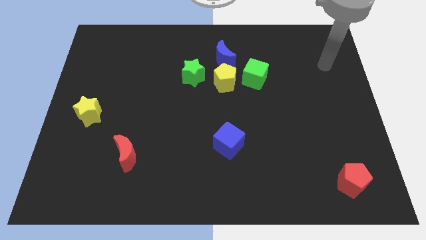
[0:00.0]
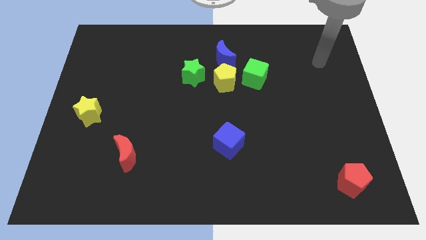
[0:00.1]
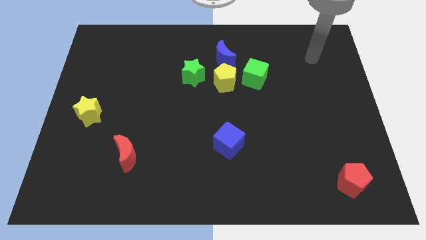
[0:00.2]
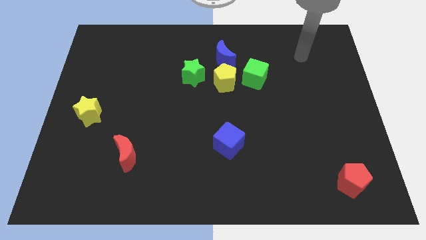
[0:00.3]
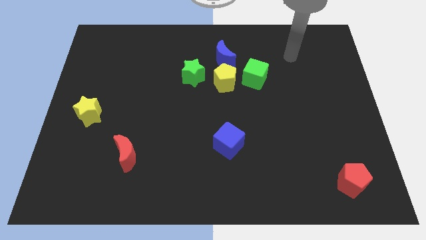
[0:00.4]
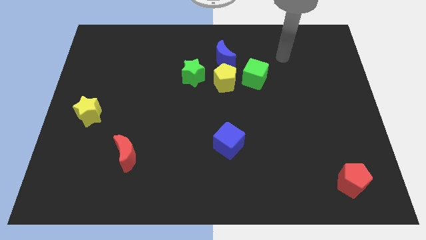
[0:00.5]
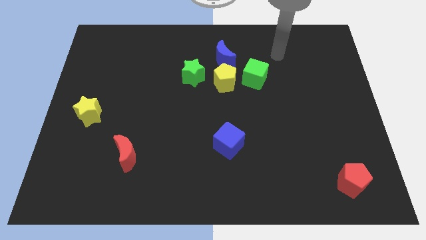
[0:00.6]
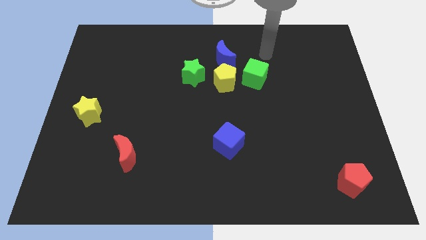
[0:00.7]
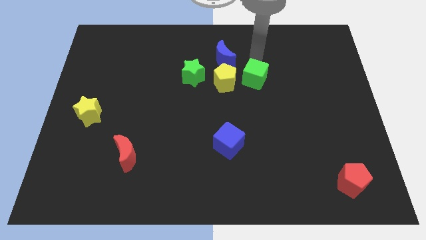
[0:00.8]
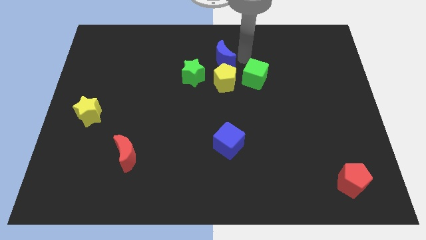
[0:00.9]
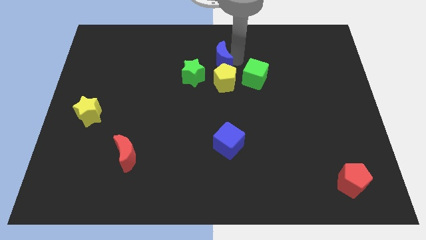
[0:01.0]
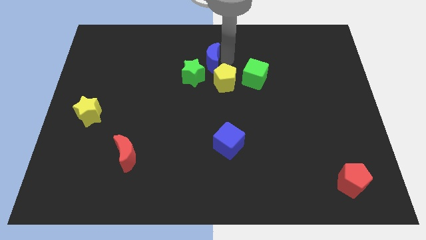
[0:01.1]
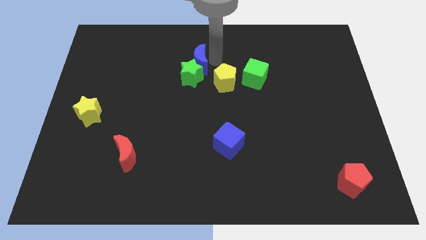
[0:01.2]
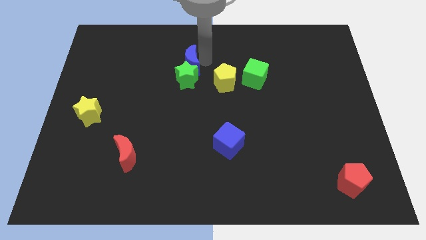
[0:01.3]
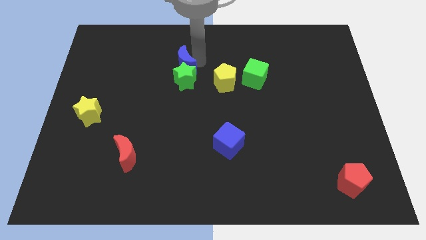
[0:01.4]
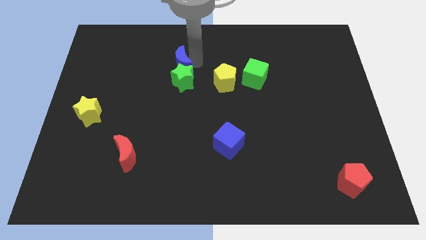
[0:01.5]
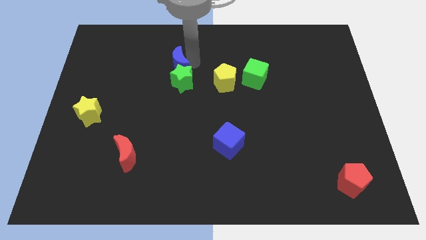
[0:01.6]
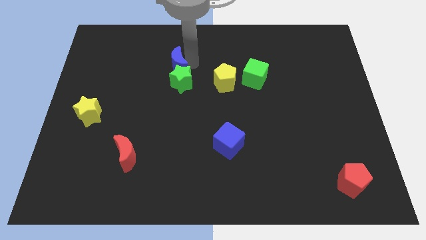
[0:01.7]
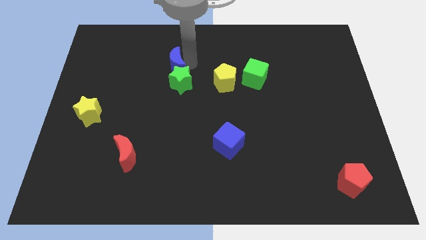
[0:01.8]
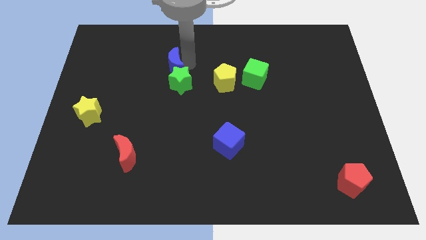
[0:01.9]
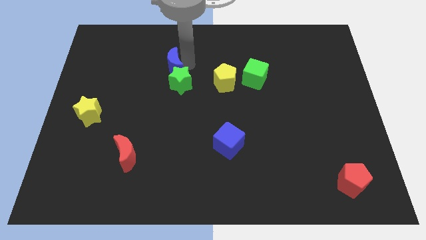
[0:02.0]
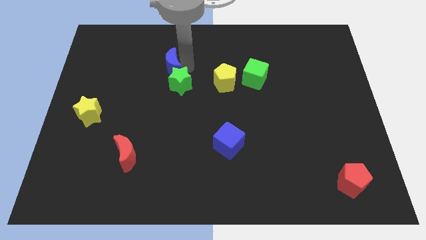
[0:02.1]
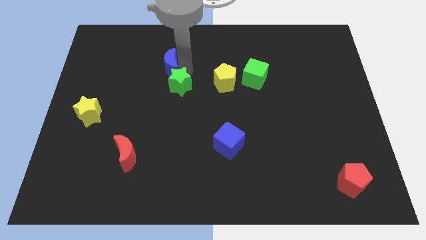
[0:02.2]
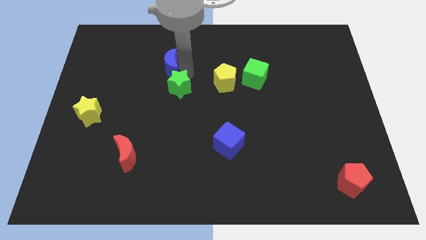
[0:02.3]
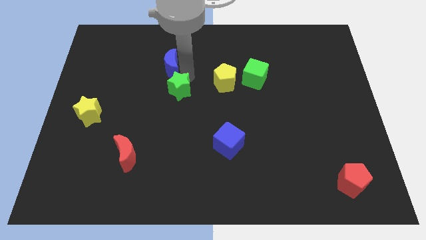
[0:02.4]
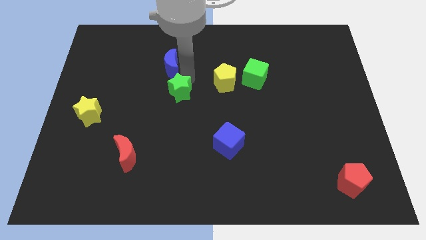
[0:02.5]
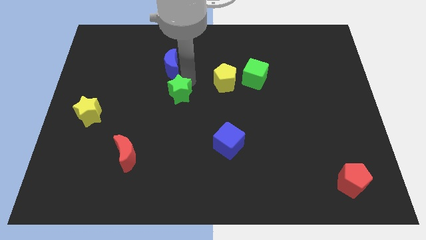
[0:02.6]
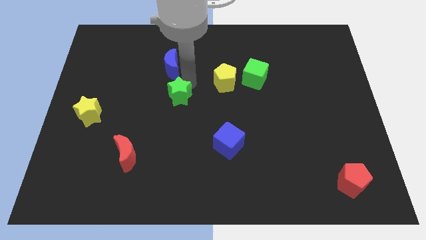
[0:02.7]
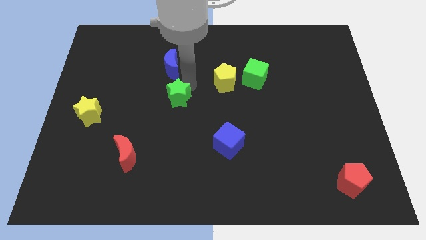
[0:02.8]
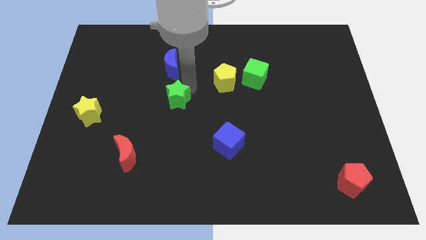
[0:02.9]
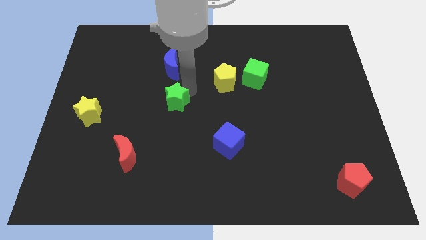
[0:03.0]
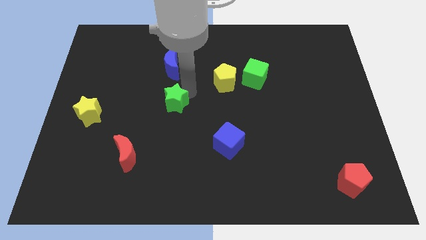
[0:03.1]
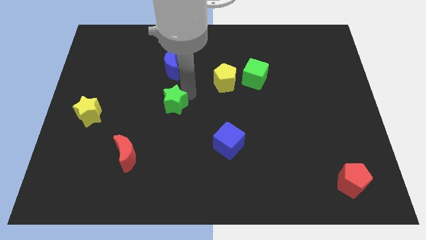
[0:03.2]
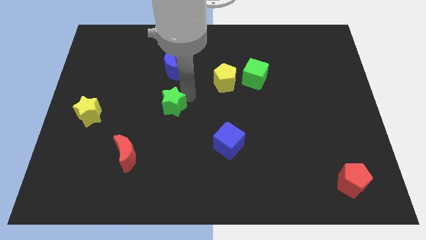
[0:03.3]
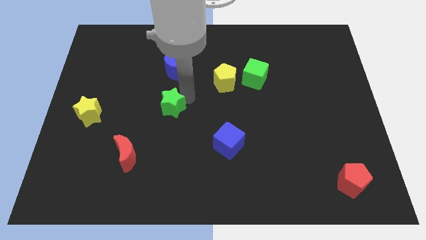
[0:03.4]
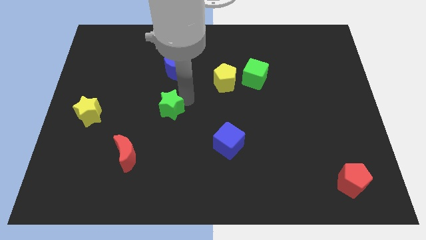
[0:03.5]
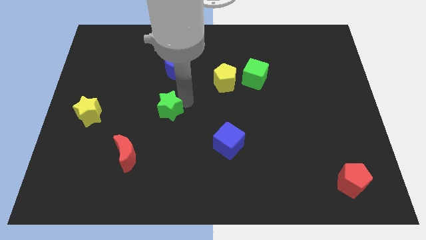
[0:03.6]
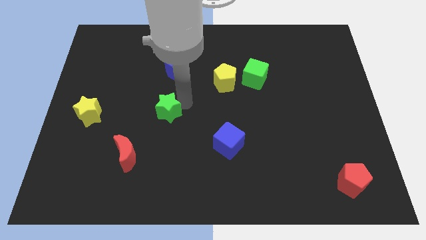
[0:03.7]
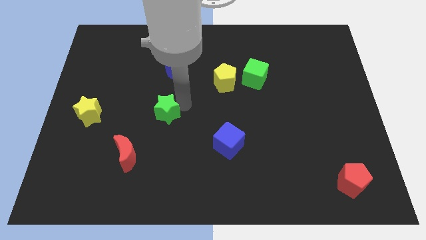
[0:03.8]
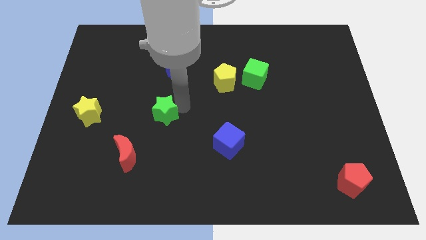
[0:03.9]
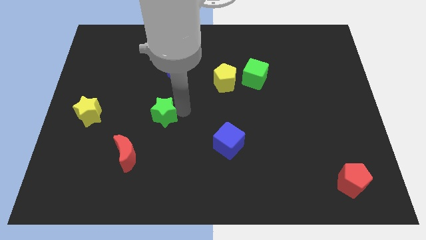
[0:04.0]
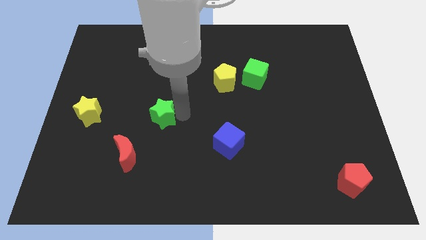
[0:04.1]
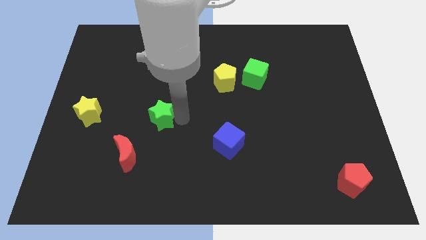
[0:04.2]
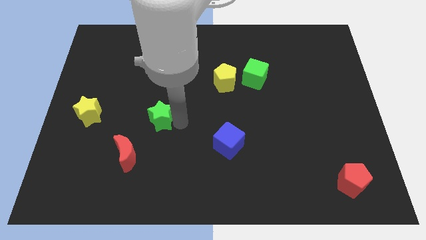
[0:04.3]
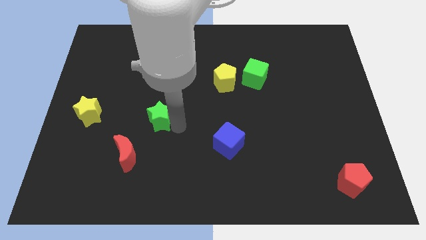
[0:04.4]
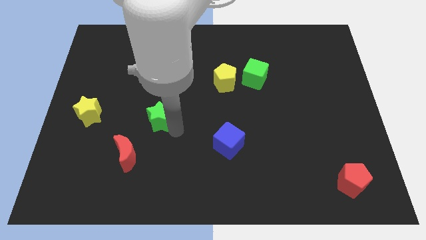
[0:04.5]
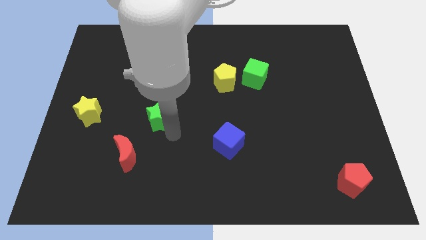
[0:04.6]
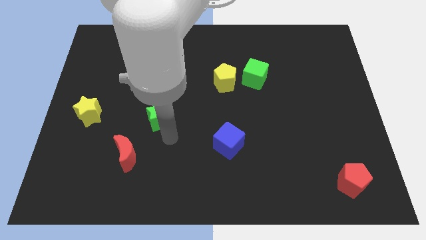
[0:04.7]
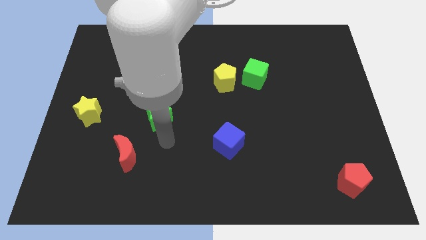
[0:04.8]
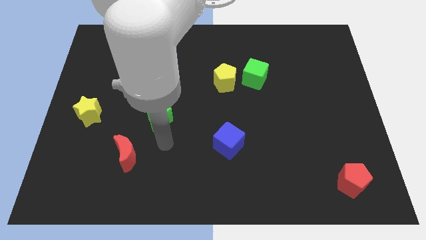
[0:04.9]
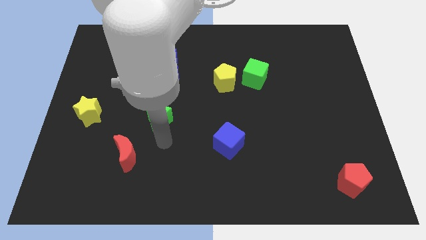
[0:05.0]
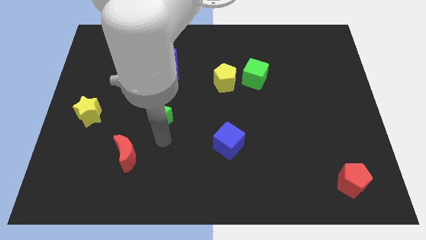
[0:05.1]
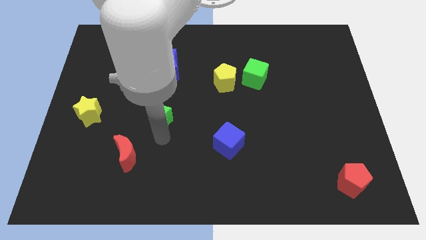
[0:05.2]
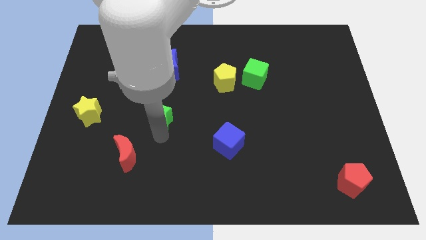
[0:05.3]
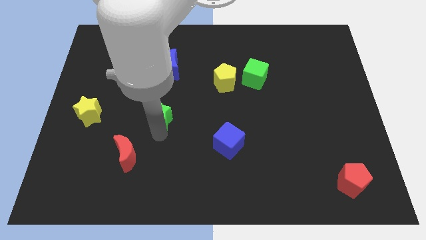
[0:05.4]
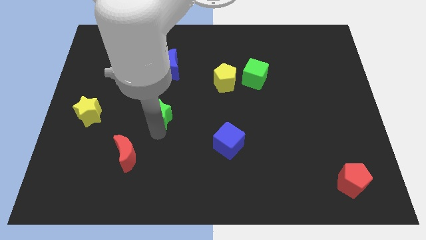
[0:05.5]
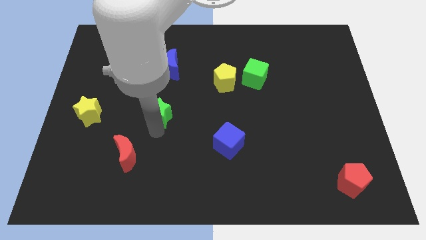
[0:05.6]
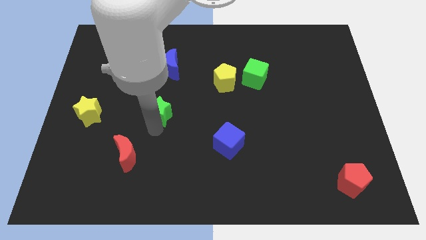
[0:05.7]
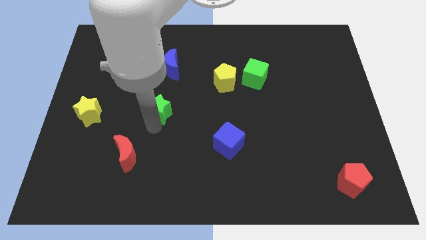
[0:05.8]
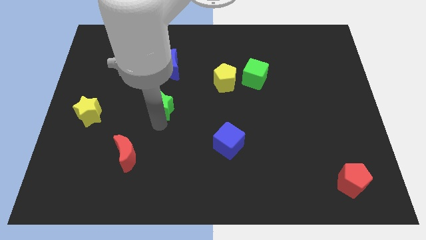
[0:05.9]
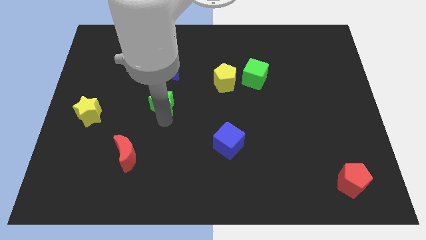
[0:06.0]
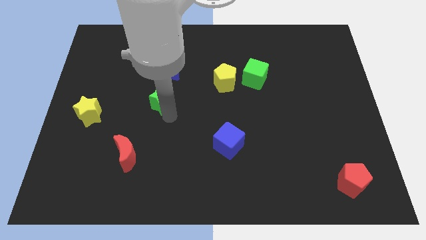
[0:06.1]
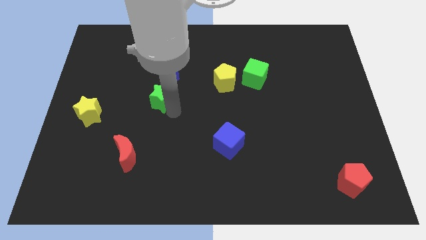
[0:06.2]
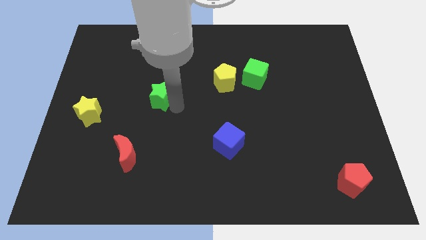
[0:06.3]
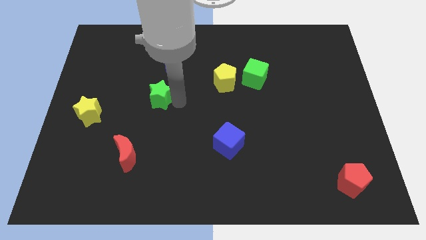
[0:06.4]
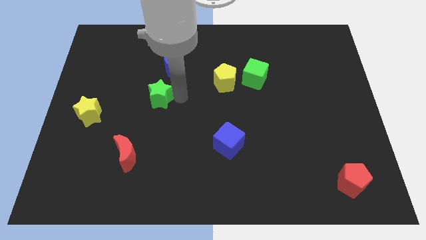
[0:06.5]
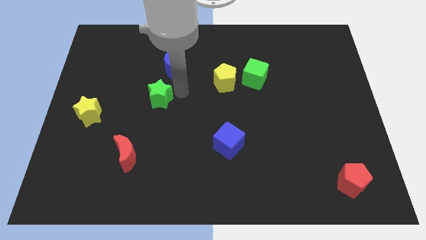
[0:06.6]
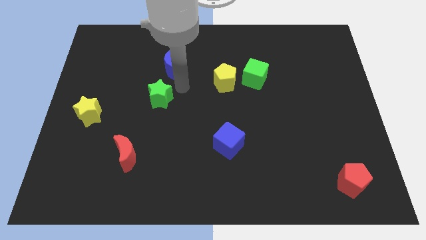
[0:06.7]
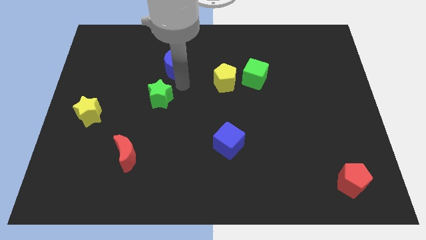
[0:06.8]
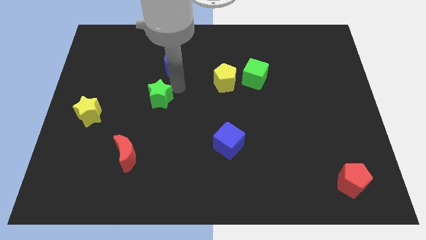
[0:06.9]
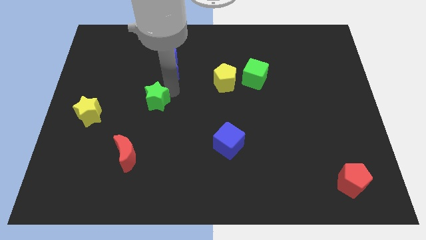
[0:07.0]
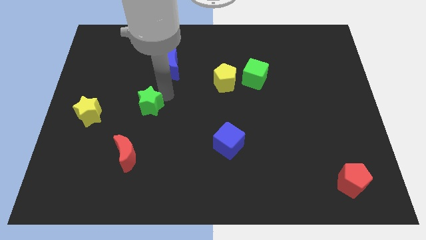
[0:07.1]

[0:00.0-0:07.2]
put the green star to the top side of the red moon
